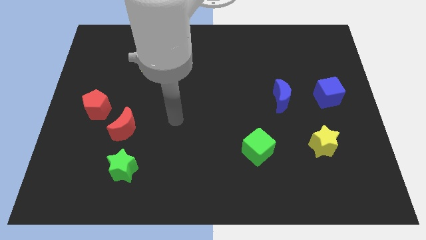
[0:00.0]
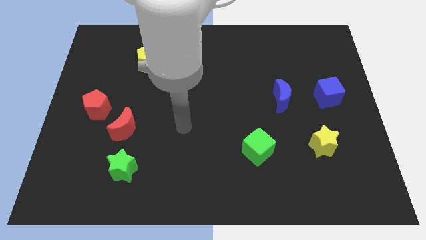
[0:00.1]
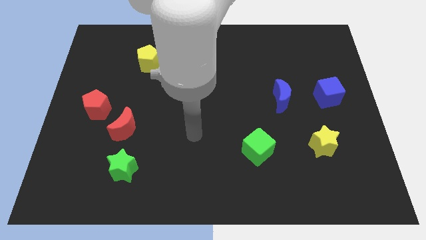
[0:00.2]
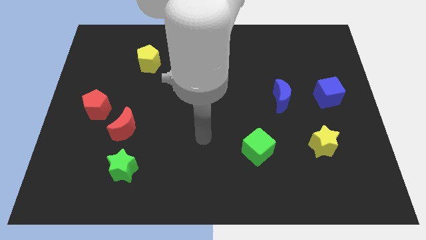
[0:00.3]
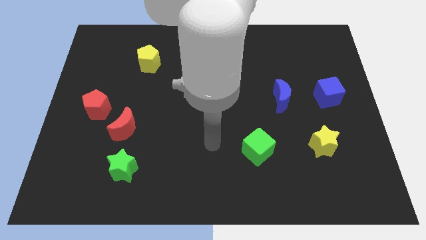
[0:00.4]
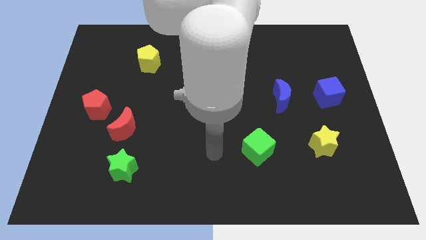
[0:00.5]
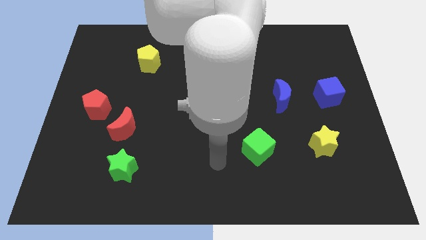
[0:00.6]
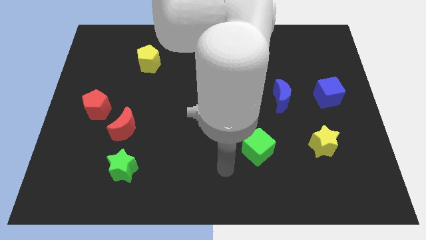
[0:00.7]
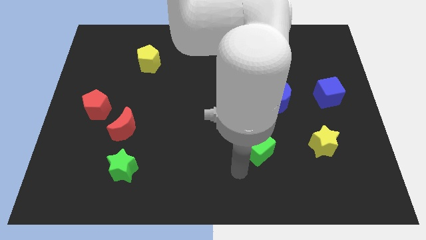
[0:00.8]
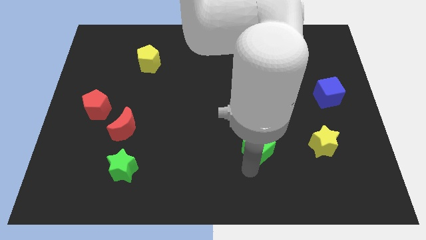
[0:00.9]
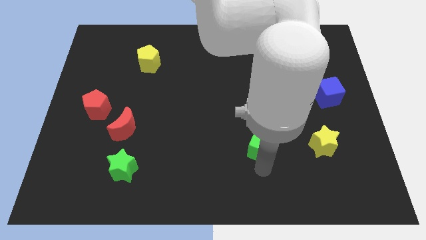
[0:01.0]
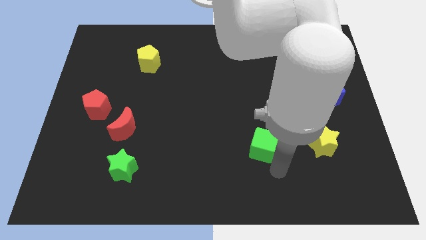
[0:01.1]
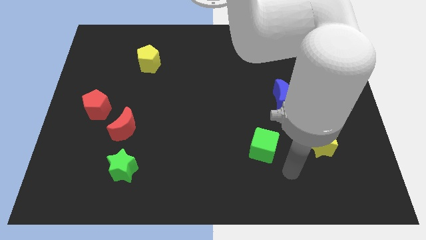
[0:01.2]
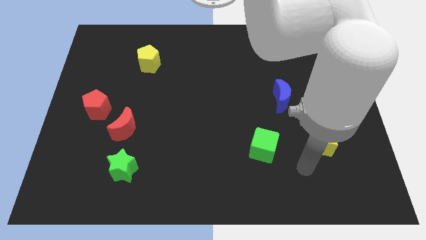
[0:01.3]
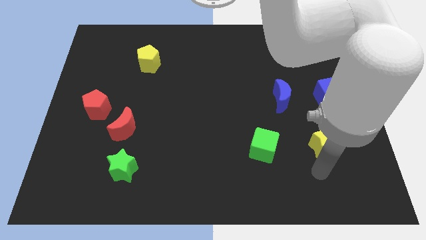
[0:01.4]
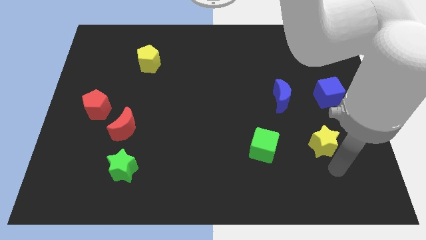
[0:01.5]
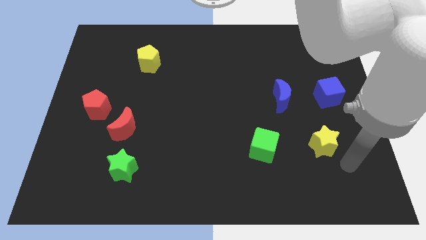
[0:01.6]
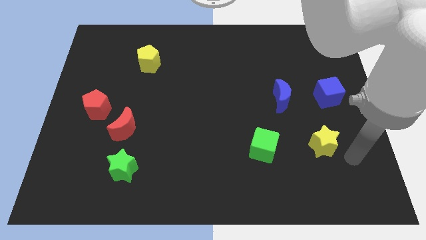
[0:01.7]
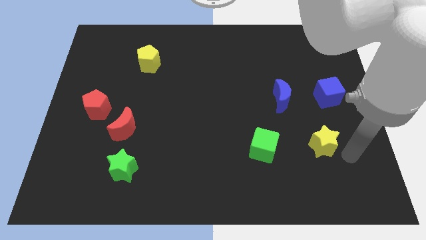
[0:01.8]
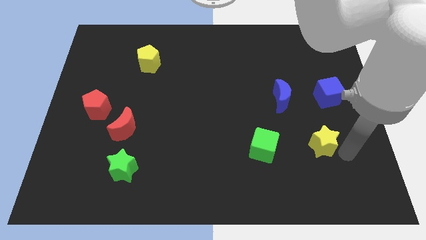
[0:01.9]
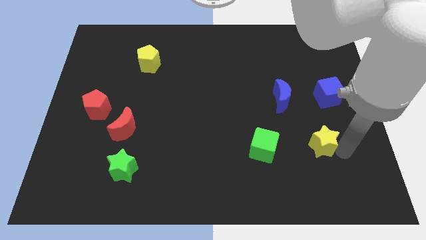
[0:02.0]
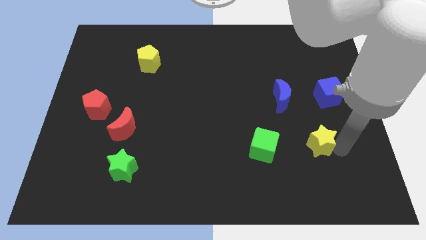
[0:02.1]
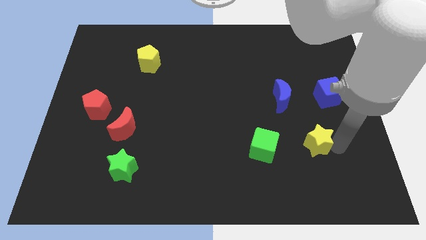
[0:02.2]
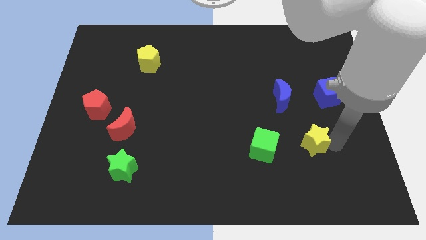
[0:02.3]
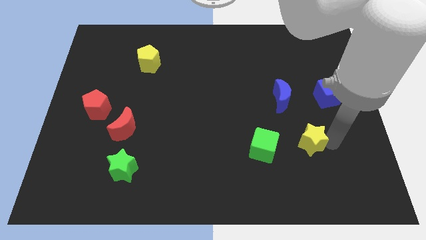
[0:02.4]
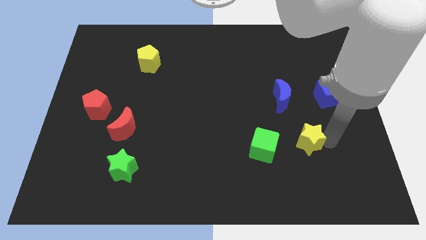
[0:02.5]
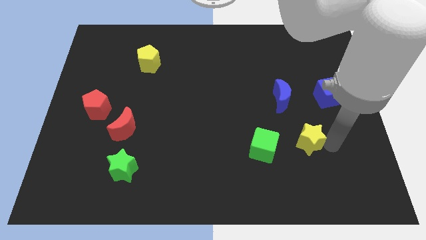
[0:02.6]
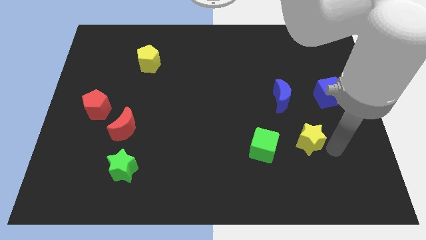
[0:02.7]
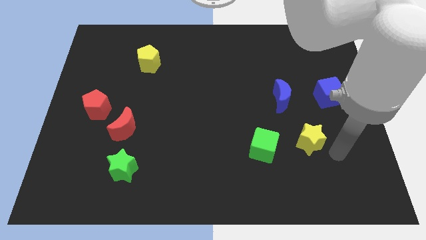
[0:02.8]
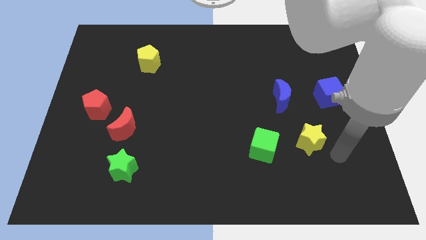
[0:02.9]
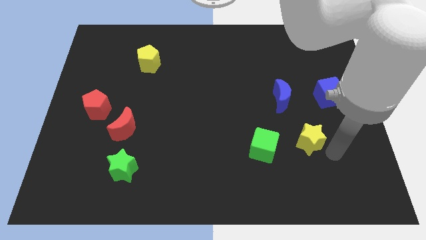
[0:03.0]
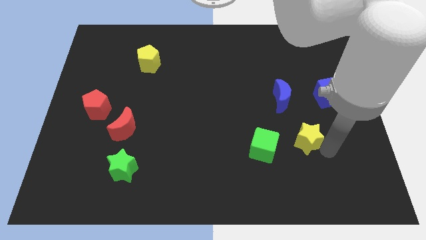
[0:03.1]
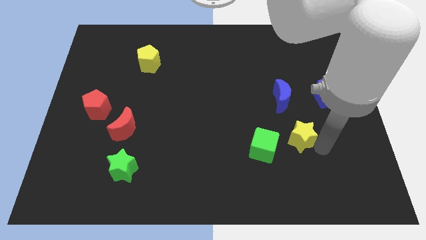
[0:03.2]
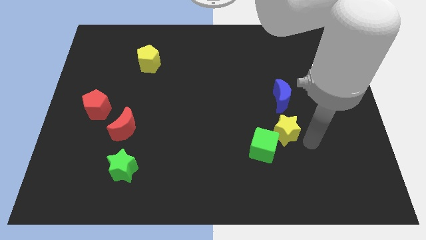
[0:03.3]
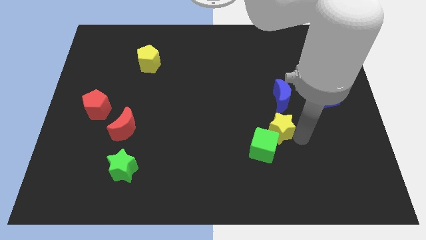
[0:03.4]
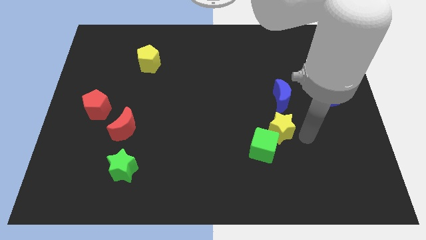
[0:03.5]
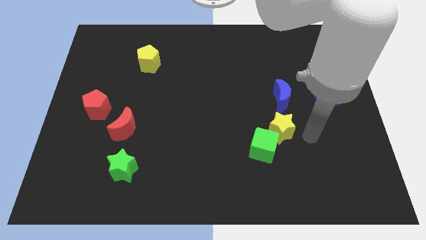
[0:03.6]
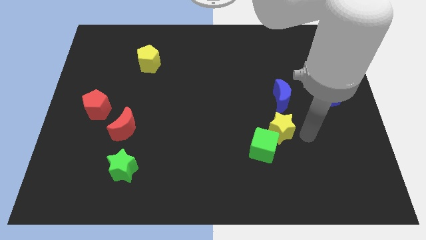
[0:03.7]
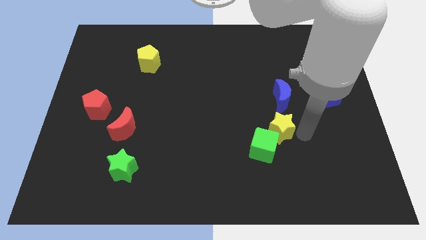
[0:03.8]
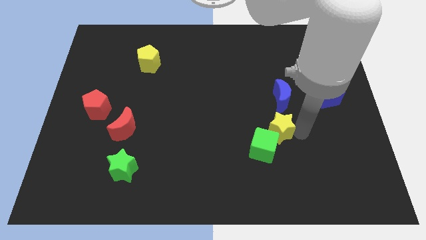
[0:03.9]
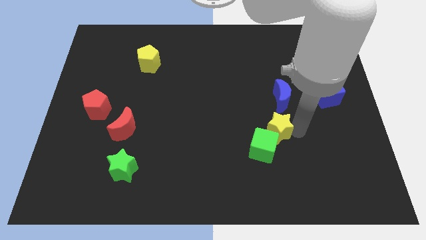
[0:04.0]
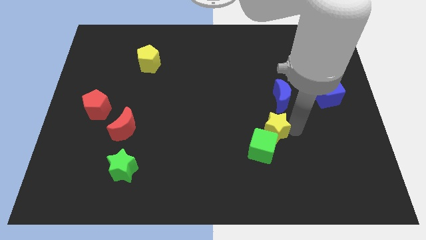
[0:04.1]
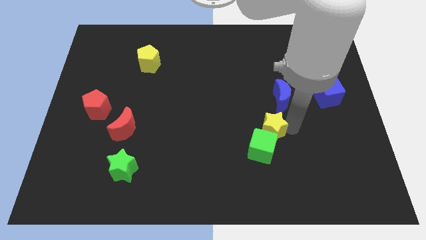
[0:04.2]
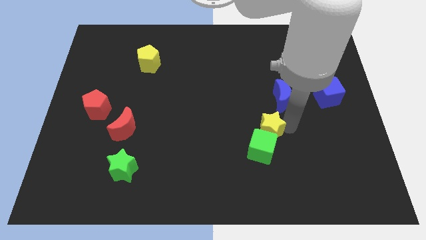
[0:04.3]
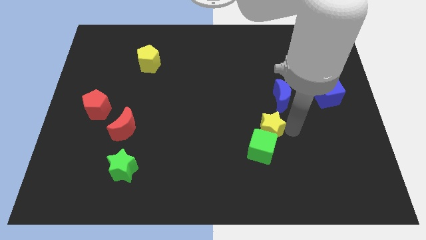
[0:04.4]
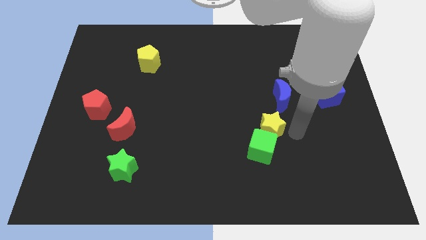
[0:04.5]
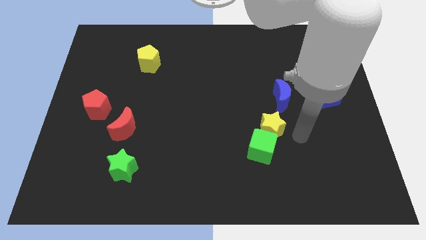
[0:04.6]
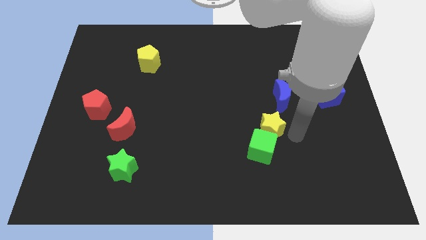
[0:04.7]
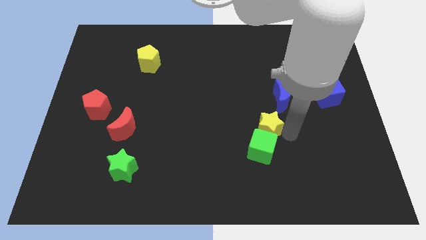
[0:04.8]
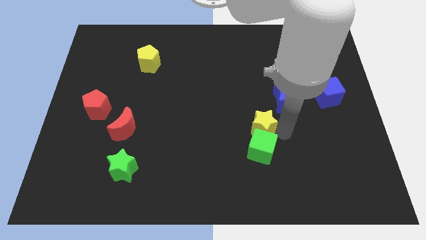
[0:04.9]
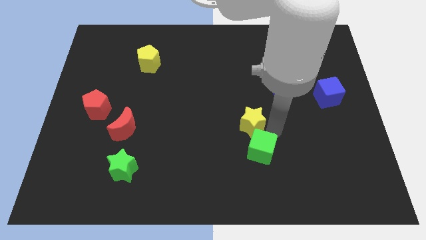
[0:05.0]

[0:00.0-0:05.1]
slide the yellow star to the middle of the board

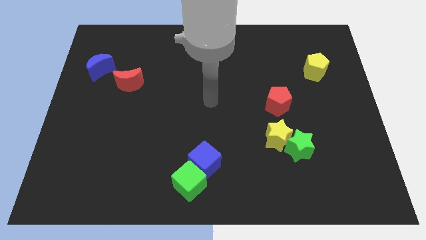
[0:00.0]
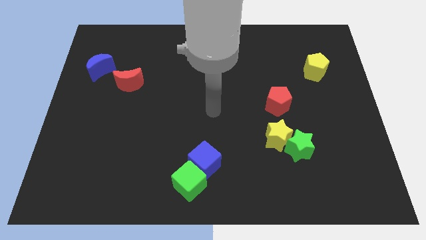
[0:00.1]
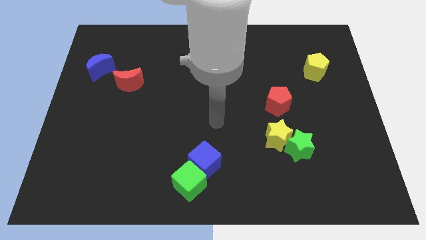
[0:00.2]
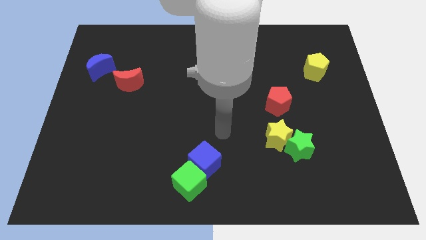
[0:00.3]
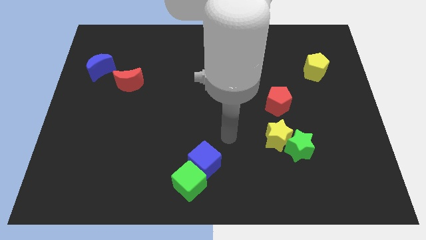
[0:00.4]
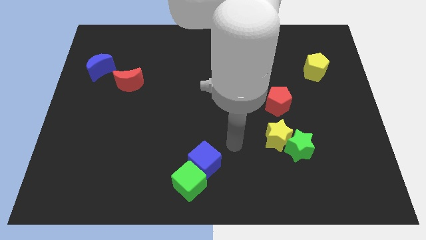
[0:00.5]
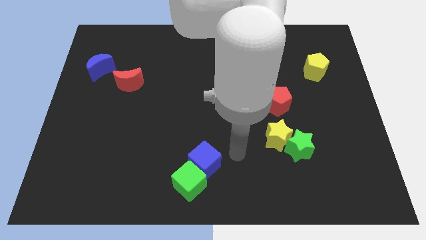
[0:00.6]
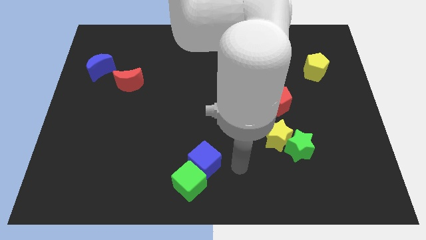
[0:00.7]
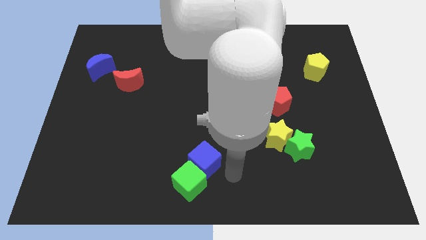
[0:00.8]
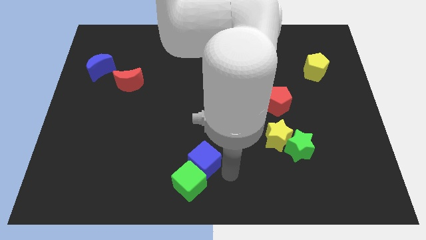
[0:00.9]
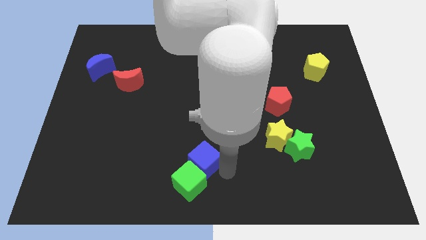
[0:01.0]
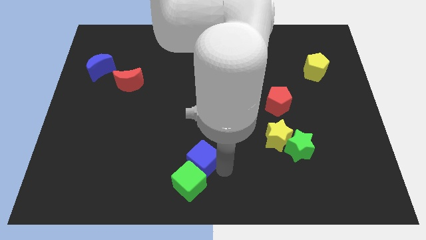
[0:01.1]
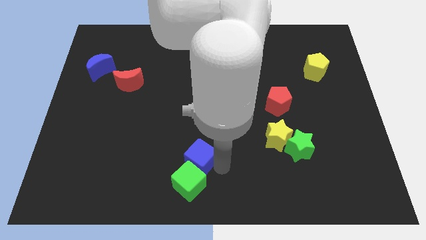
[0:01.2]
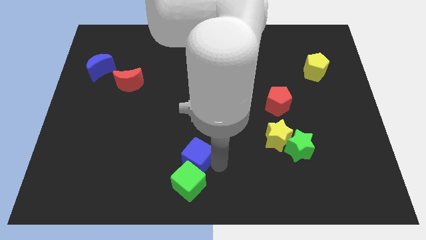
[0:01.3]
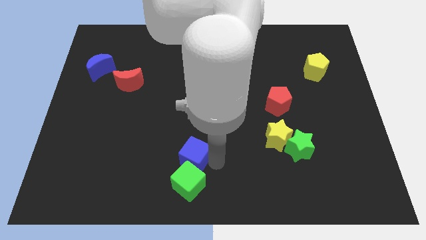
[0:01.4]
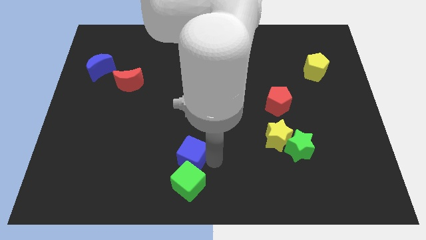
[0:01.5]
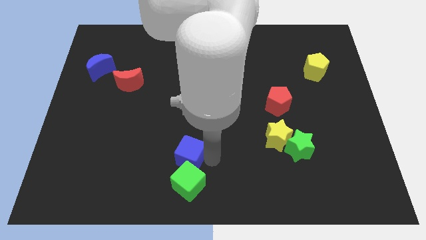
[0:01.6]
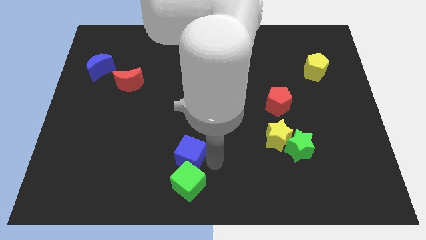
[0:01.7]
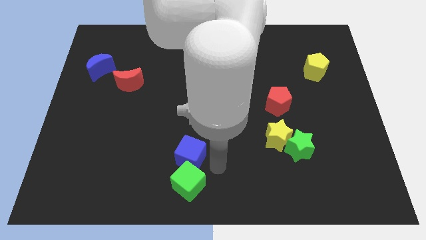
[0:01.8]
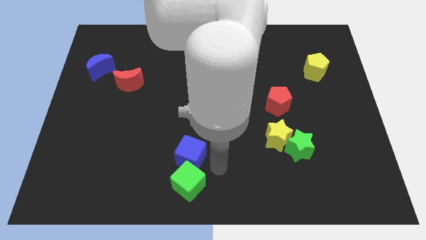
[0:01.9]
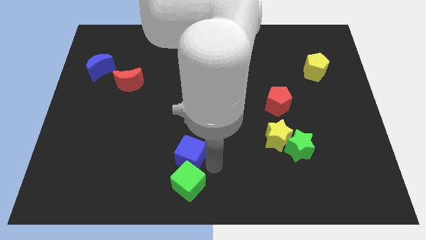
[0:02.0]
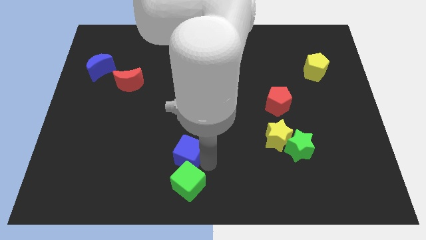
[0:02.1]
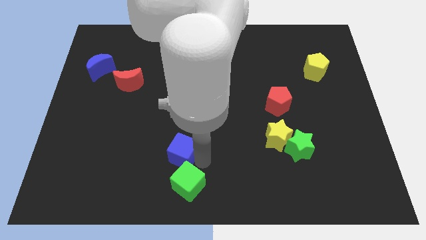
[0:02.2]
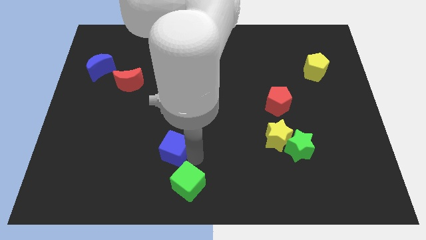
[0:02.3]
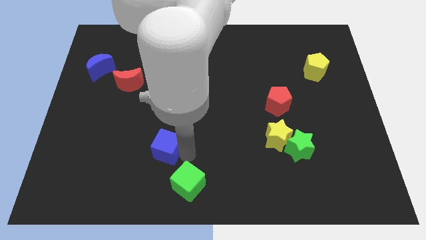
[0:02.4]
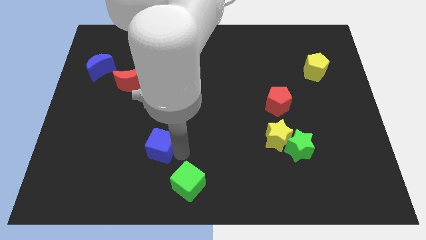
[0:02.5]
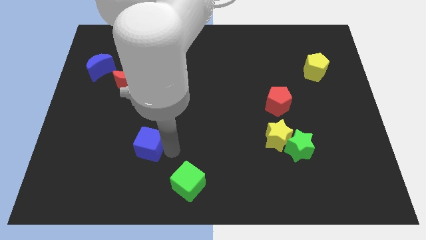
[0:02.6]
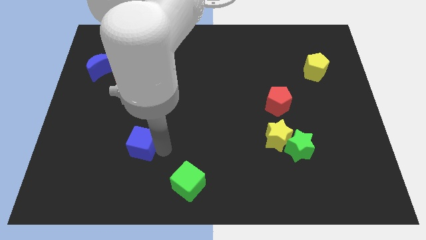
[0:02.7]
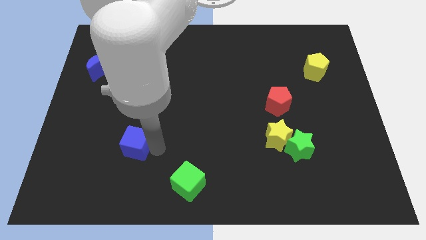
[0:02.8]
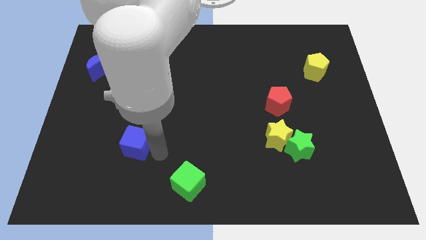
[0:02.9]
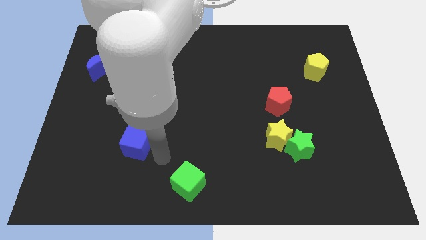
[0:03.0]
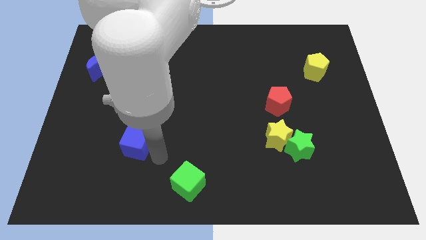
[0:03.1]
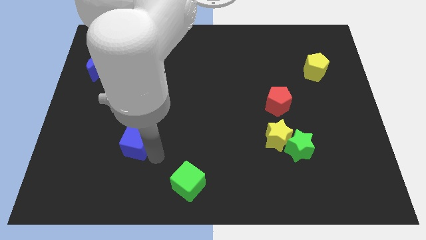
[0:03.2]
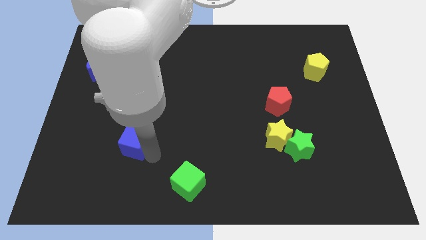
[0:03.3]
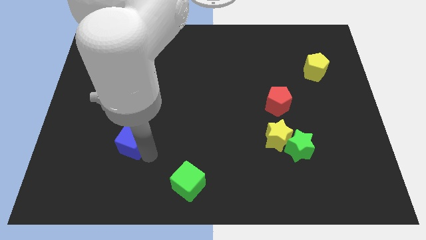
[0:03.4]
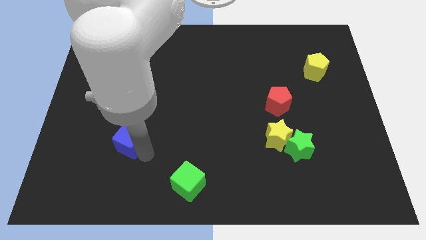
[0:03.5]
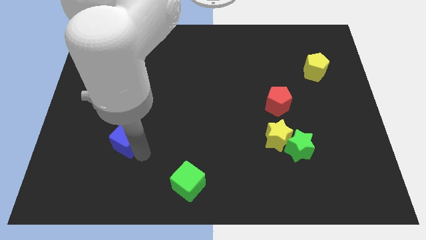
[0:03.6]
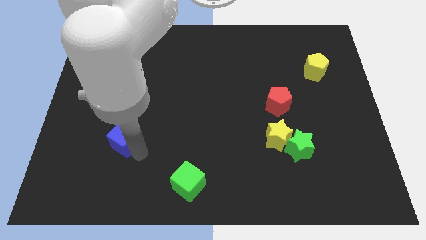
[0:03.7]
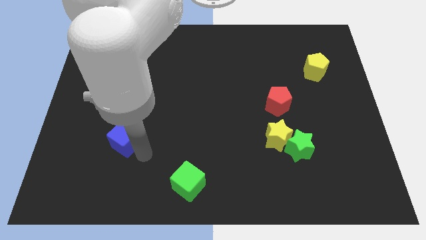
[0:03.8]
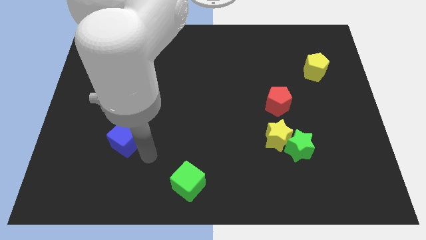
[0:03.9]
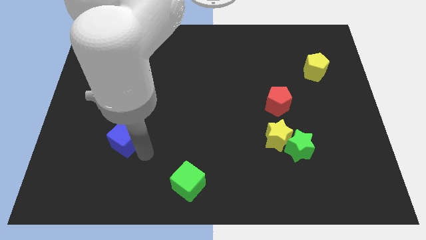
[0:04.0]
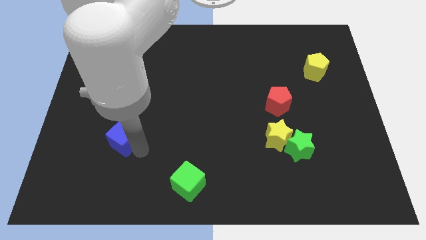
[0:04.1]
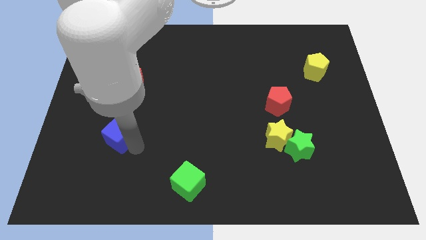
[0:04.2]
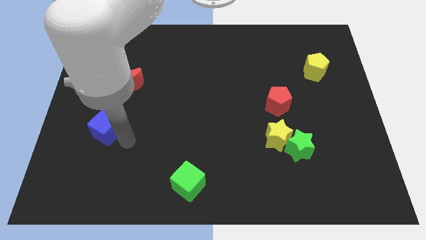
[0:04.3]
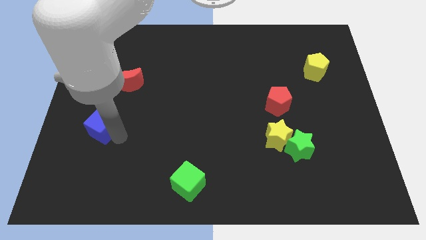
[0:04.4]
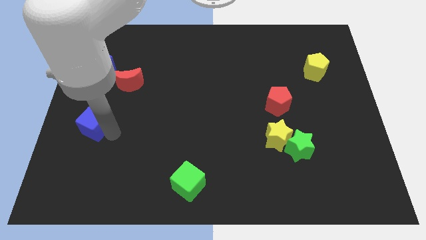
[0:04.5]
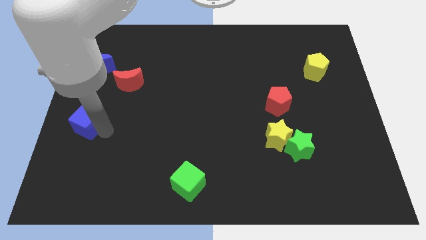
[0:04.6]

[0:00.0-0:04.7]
put the blue cube to the left side of the board
